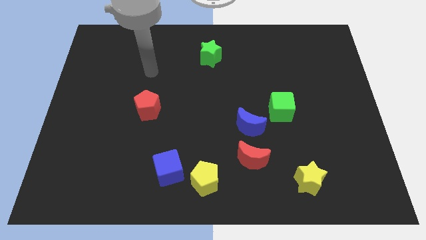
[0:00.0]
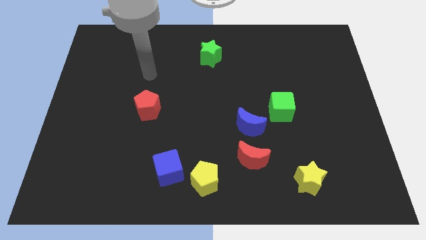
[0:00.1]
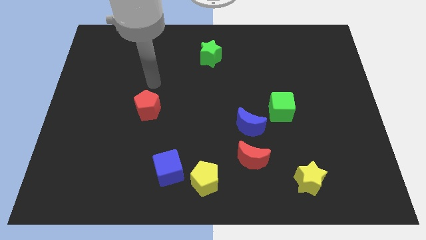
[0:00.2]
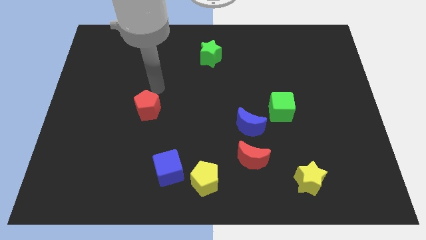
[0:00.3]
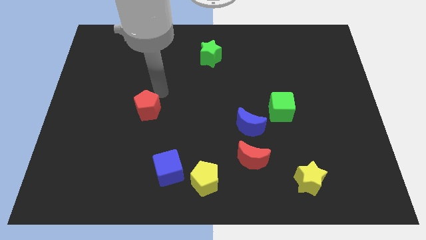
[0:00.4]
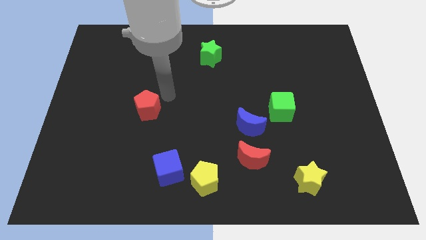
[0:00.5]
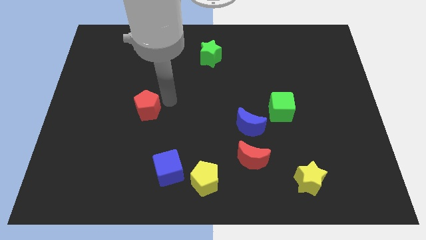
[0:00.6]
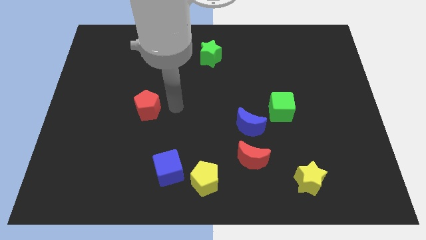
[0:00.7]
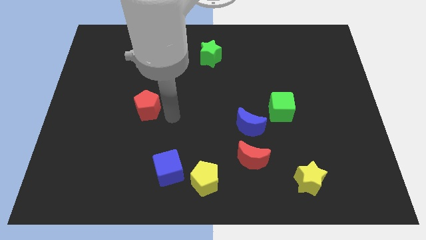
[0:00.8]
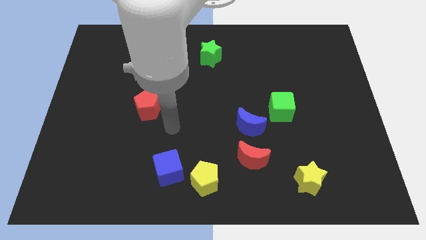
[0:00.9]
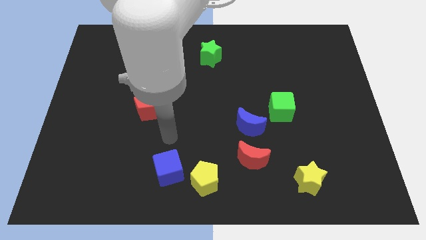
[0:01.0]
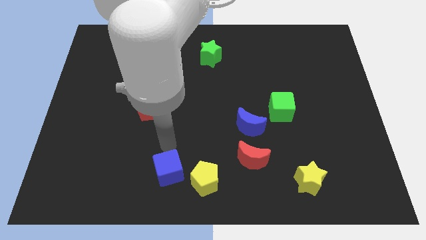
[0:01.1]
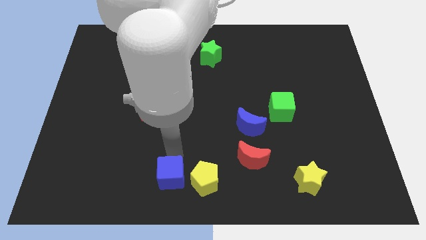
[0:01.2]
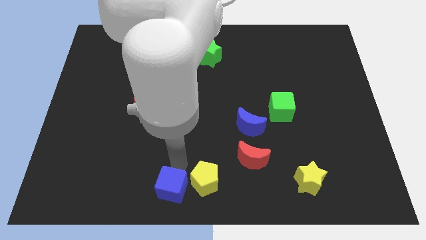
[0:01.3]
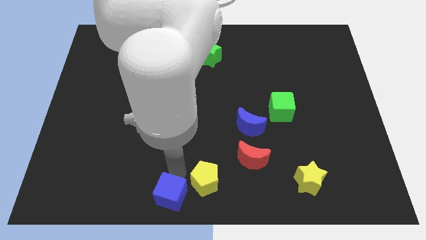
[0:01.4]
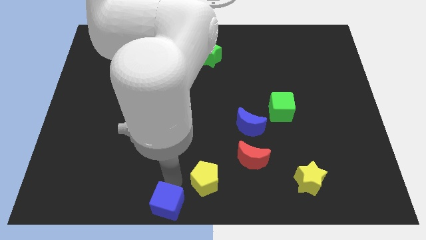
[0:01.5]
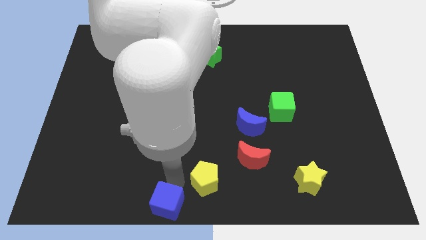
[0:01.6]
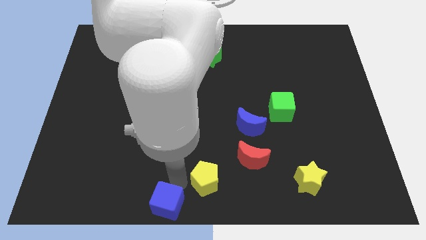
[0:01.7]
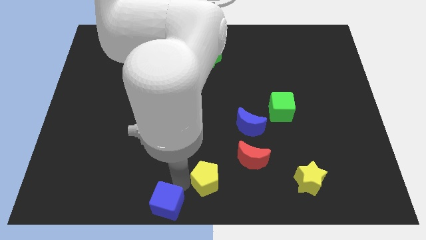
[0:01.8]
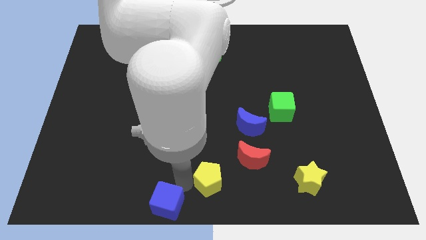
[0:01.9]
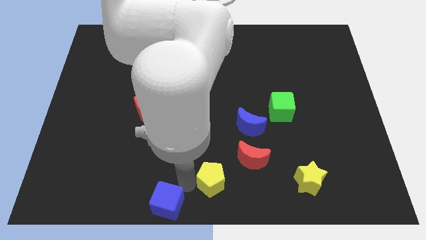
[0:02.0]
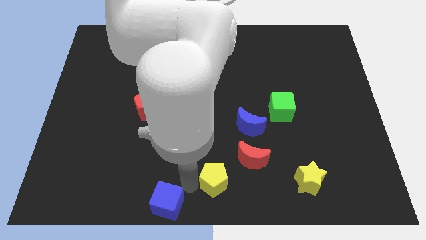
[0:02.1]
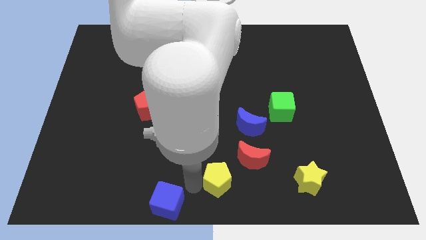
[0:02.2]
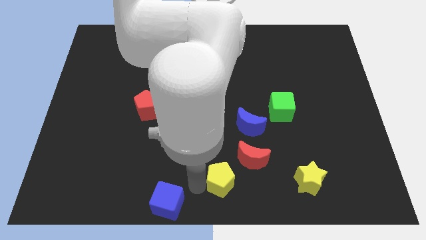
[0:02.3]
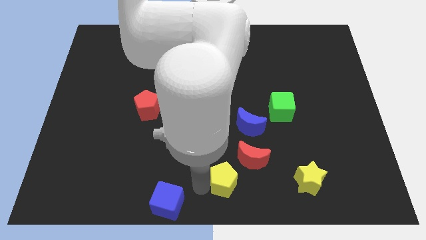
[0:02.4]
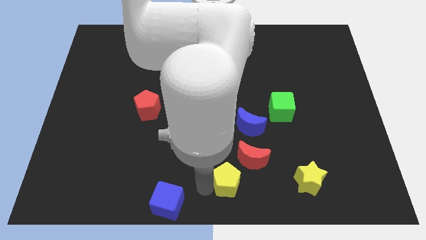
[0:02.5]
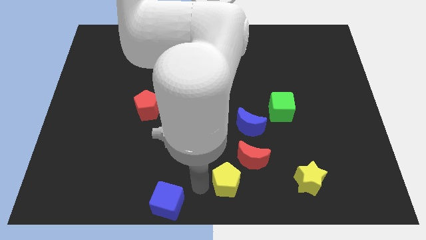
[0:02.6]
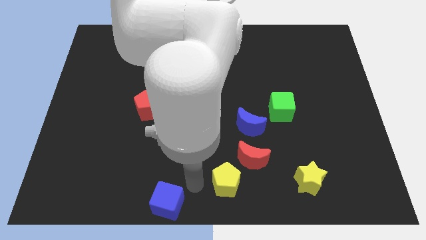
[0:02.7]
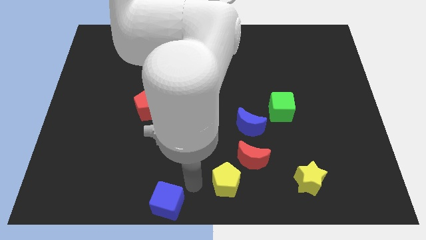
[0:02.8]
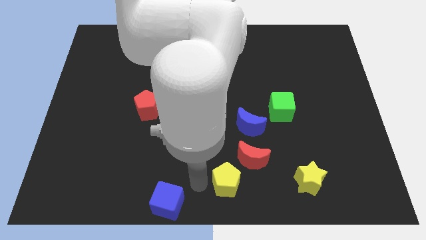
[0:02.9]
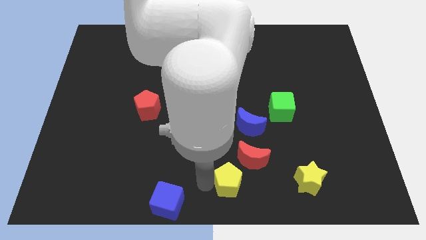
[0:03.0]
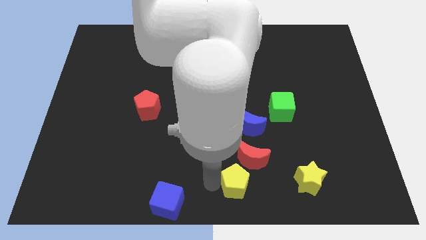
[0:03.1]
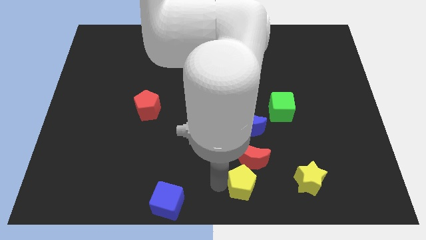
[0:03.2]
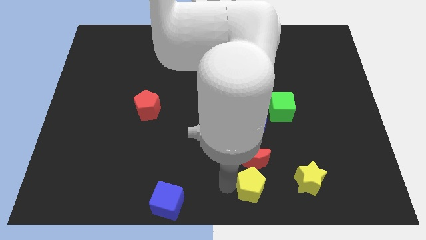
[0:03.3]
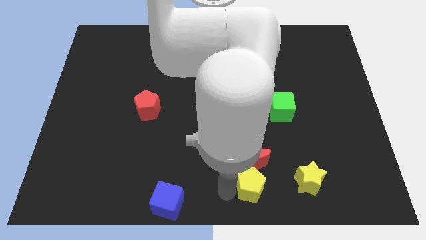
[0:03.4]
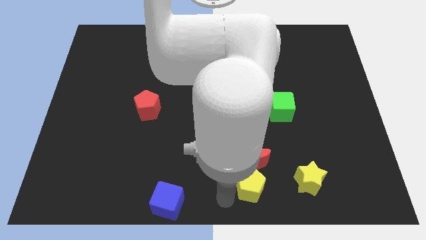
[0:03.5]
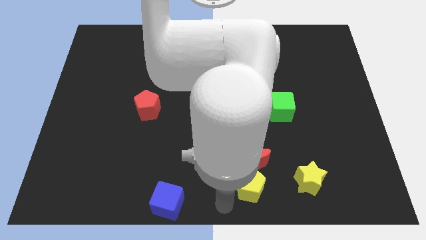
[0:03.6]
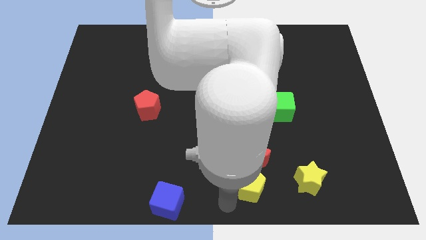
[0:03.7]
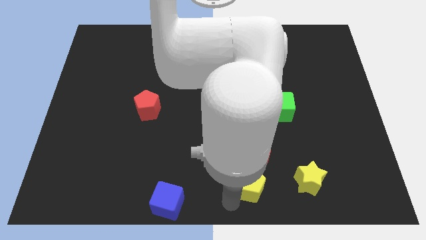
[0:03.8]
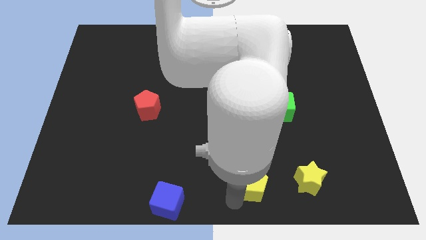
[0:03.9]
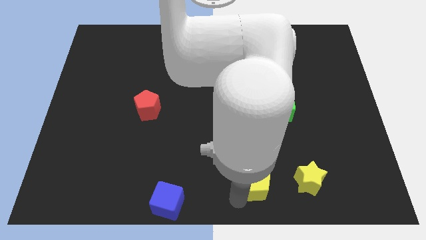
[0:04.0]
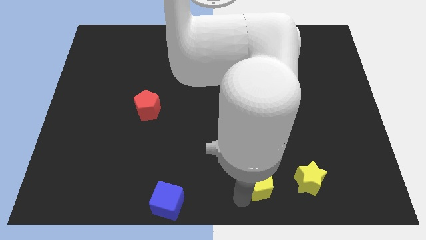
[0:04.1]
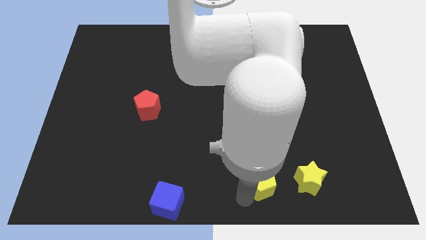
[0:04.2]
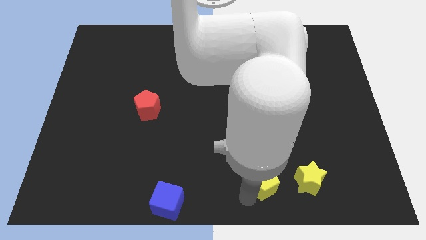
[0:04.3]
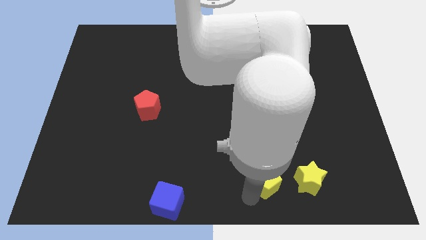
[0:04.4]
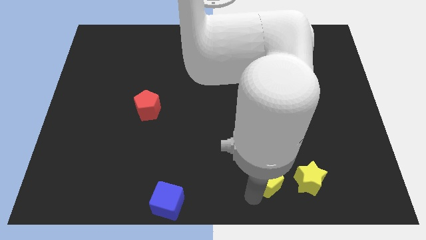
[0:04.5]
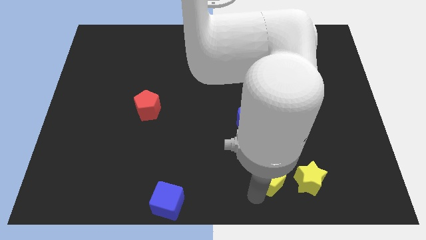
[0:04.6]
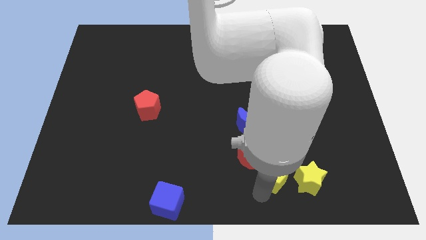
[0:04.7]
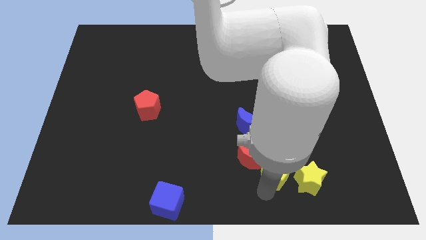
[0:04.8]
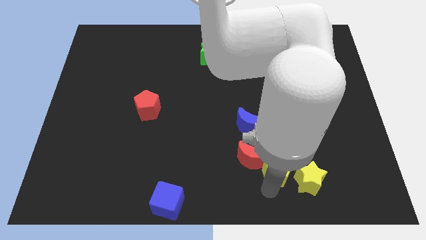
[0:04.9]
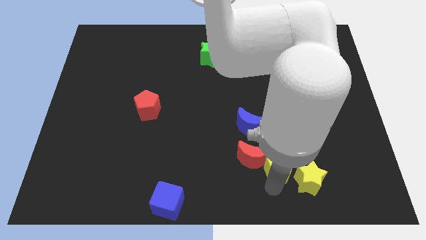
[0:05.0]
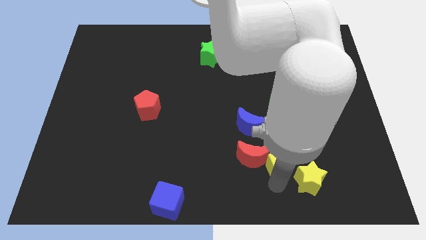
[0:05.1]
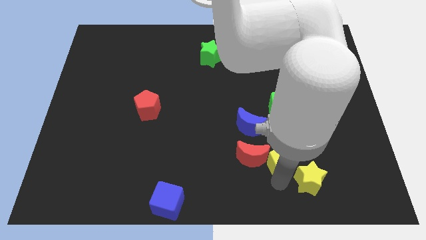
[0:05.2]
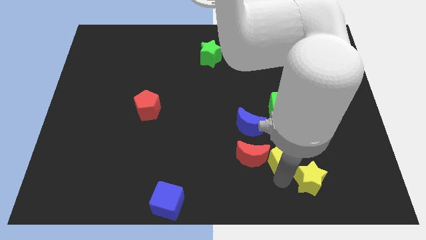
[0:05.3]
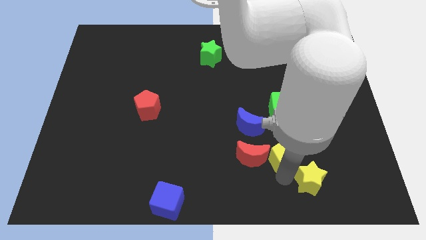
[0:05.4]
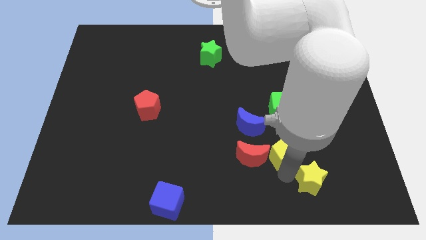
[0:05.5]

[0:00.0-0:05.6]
put the yellow pentagon to the top right of the red moon

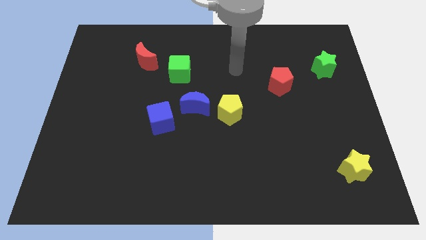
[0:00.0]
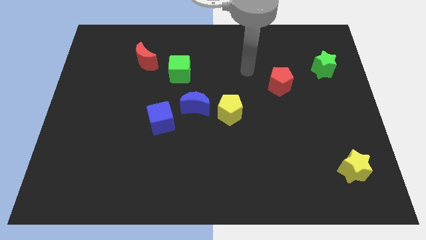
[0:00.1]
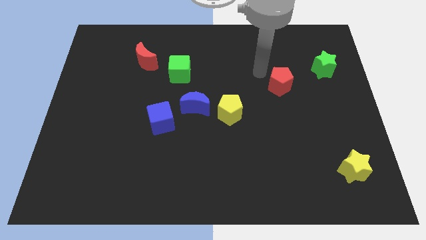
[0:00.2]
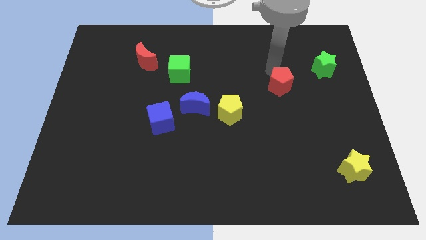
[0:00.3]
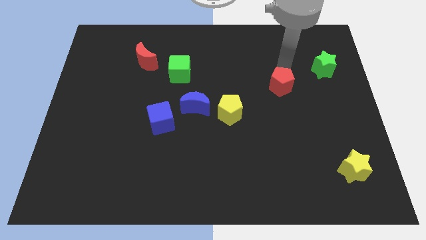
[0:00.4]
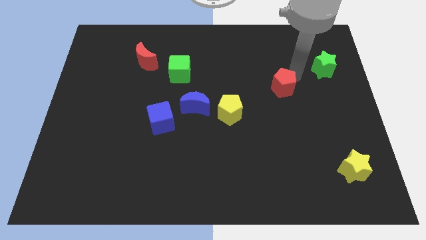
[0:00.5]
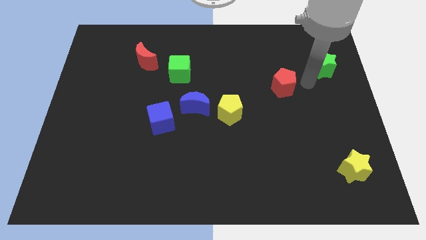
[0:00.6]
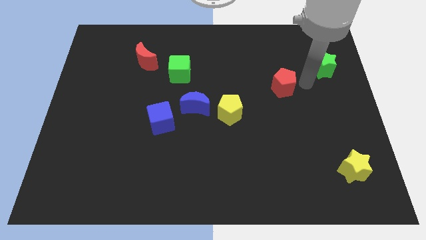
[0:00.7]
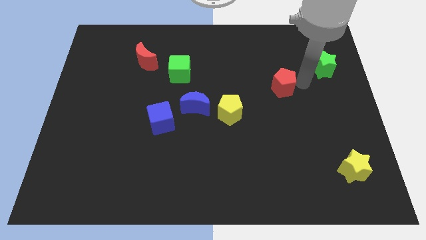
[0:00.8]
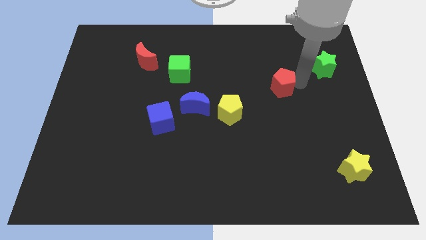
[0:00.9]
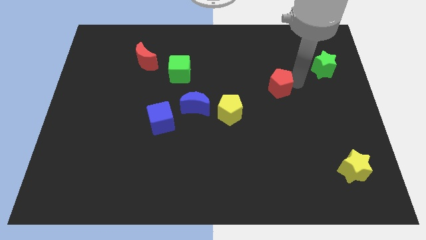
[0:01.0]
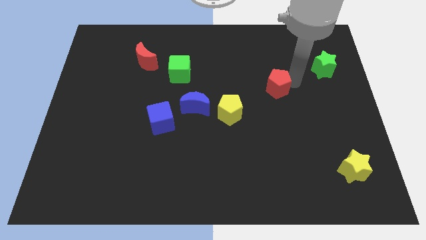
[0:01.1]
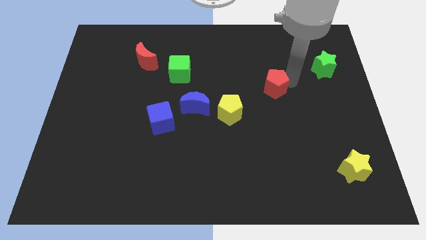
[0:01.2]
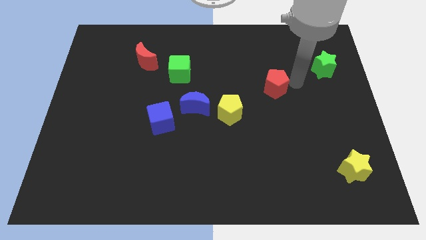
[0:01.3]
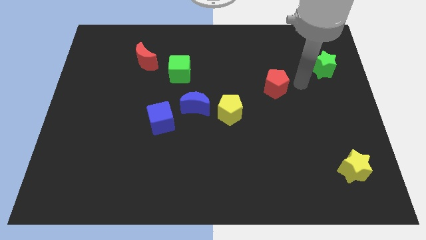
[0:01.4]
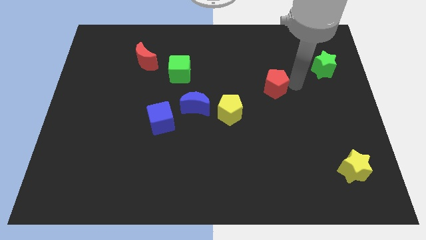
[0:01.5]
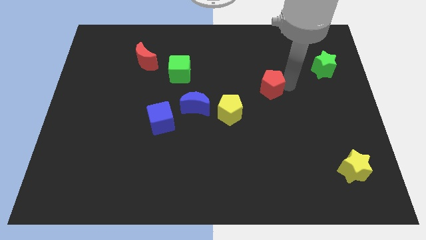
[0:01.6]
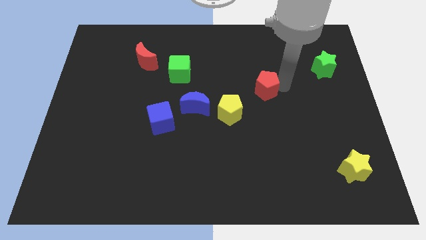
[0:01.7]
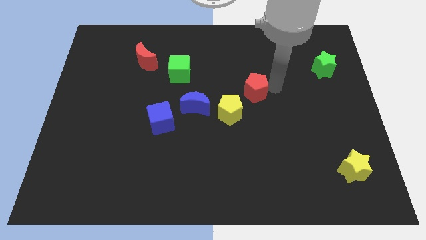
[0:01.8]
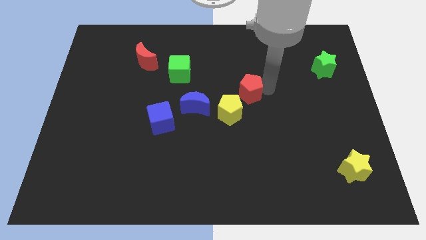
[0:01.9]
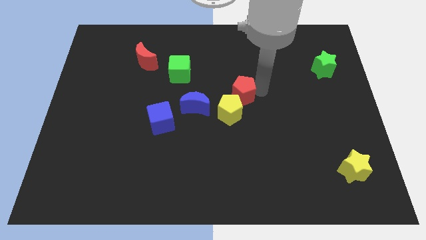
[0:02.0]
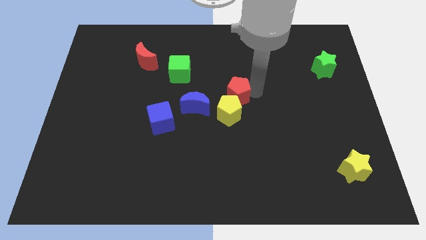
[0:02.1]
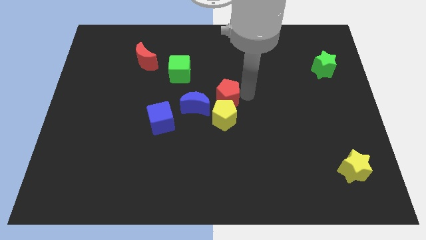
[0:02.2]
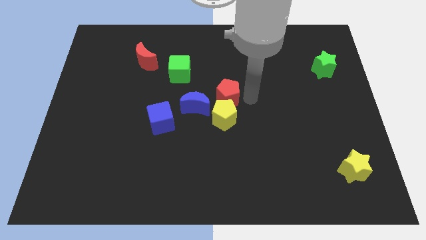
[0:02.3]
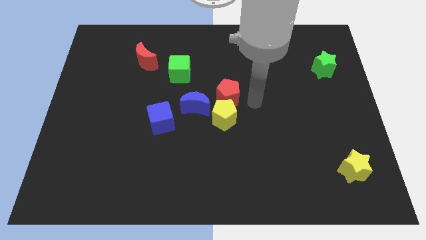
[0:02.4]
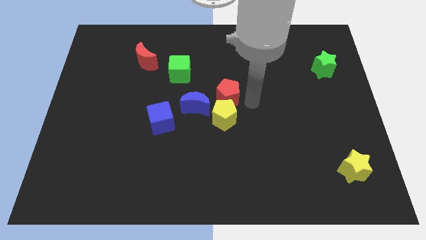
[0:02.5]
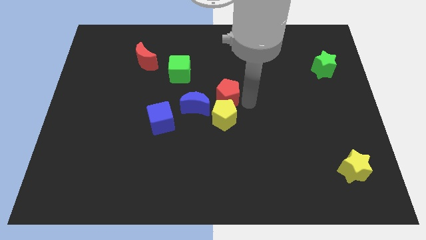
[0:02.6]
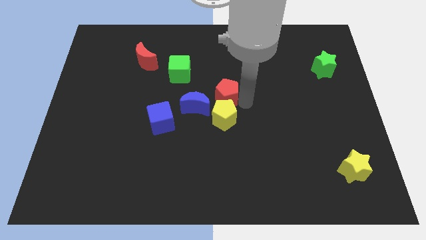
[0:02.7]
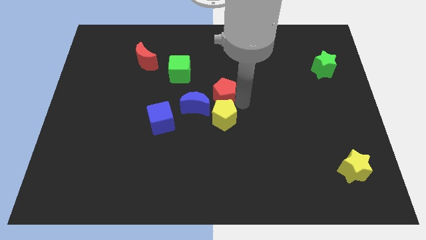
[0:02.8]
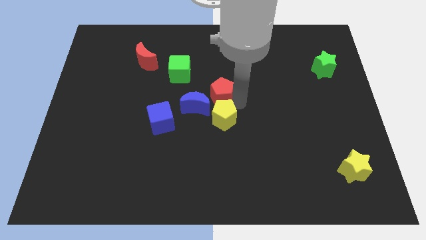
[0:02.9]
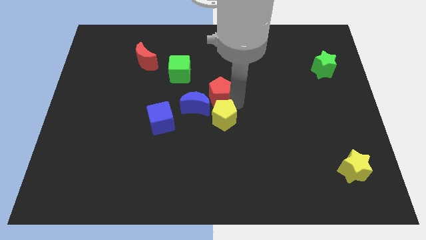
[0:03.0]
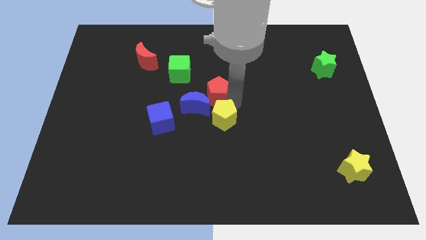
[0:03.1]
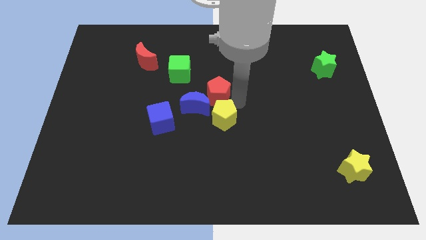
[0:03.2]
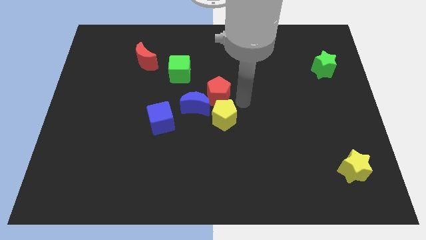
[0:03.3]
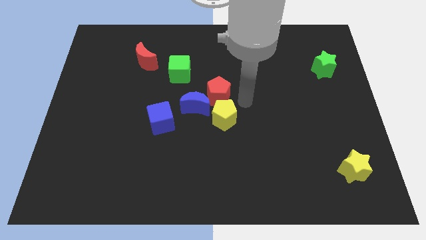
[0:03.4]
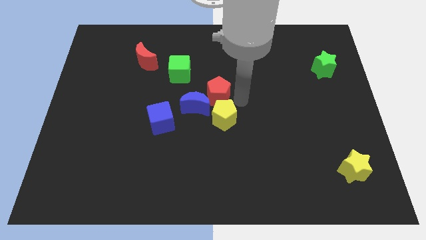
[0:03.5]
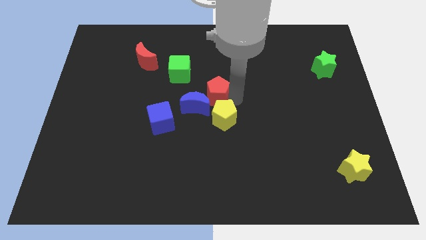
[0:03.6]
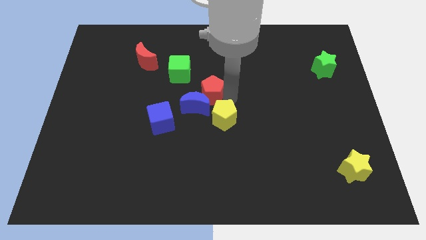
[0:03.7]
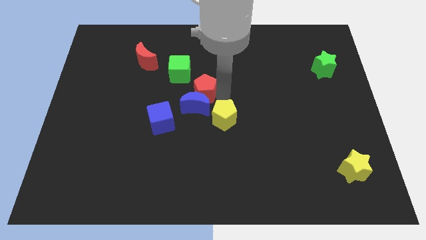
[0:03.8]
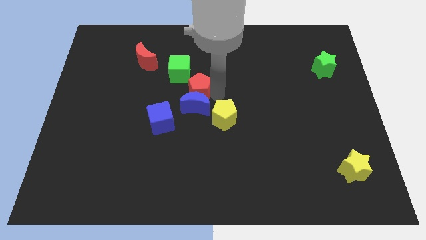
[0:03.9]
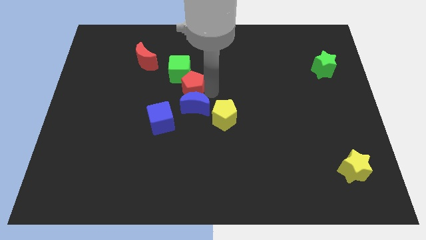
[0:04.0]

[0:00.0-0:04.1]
push the red pentagon below the green cube
